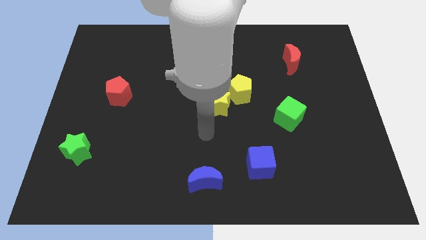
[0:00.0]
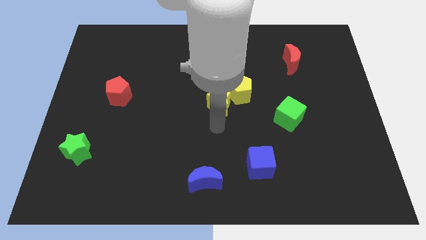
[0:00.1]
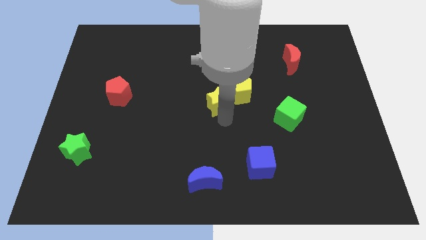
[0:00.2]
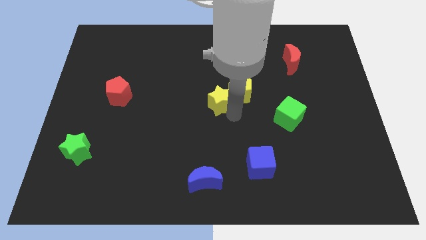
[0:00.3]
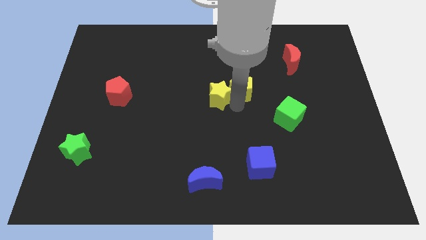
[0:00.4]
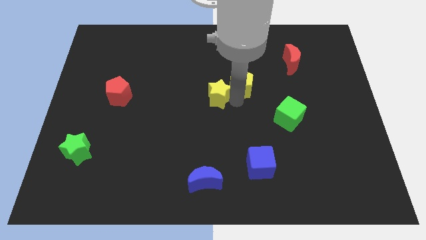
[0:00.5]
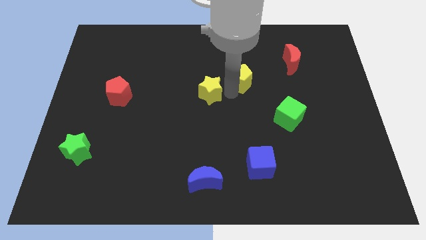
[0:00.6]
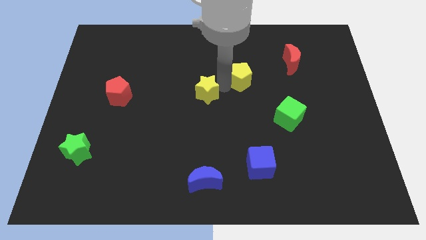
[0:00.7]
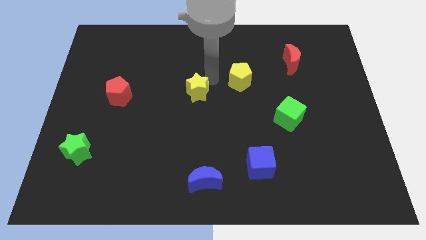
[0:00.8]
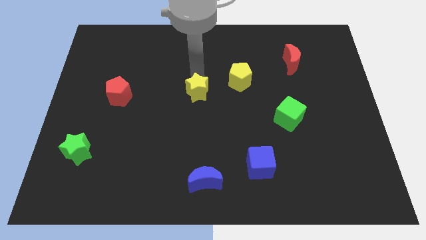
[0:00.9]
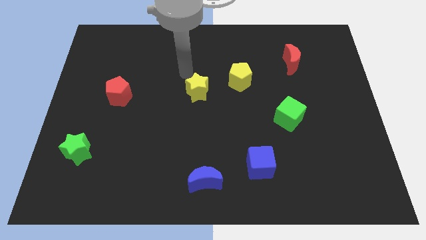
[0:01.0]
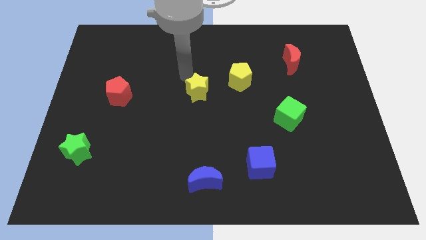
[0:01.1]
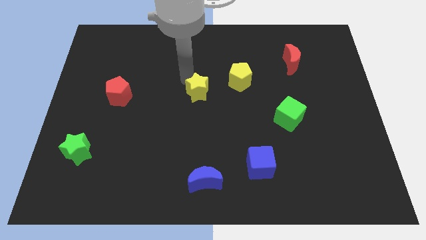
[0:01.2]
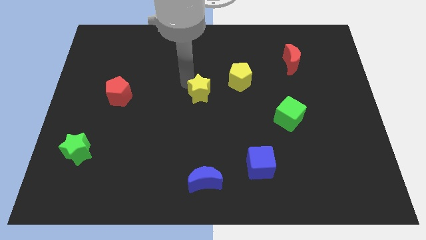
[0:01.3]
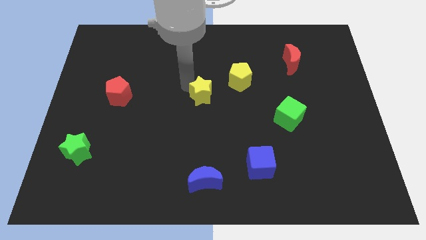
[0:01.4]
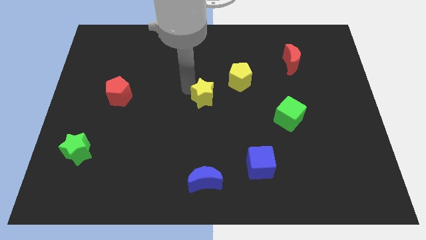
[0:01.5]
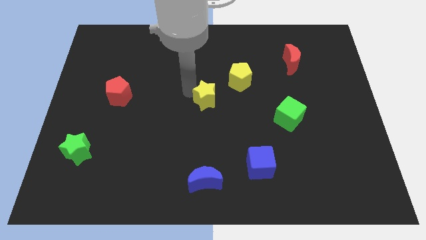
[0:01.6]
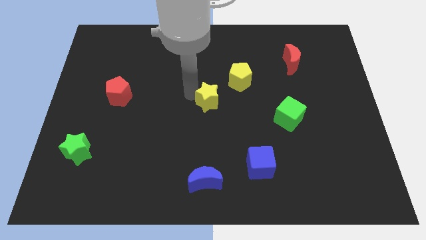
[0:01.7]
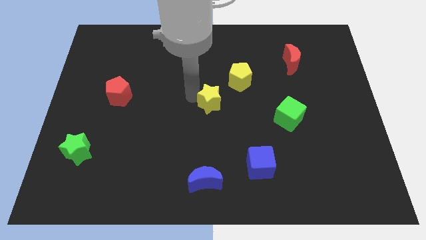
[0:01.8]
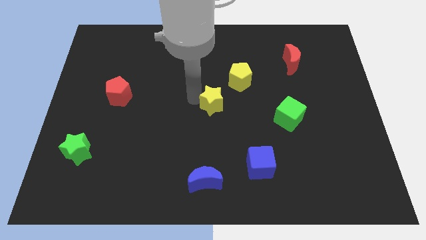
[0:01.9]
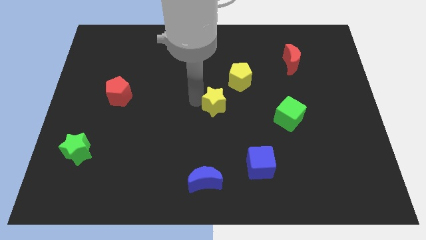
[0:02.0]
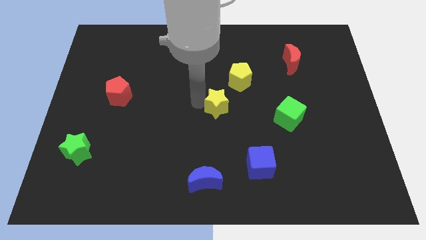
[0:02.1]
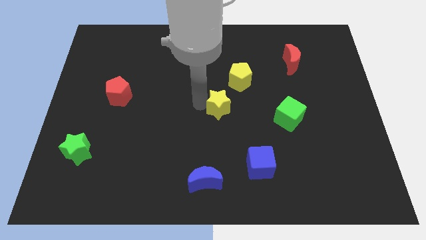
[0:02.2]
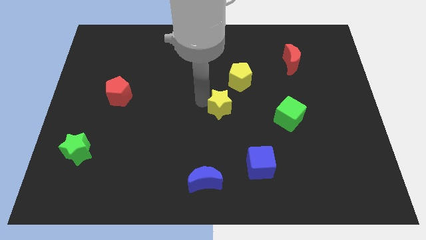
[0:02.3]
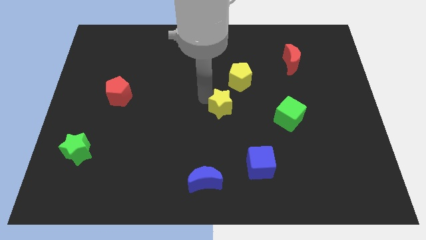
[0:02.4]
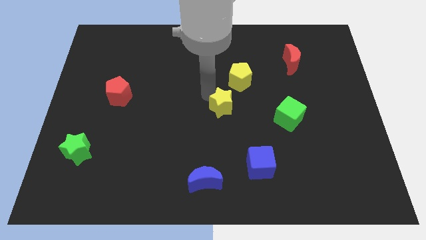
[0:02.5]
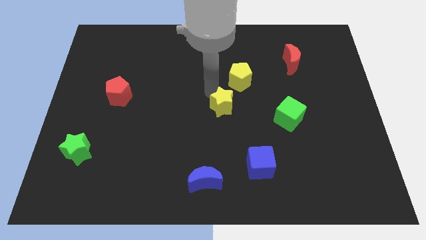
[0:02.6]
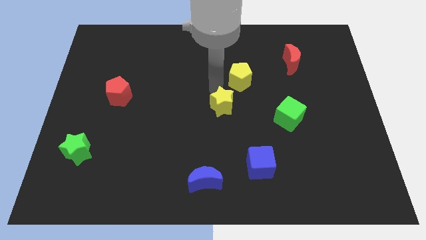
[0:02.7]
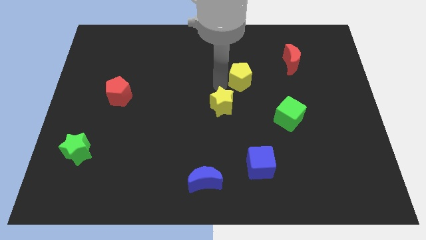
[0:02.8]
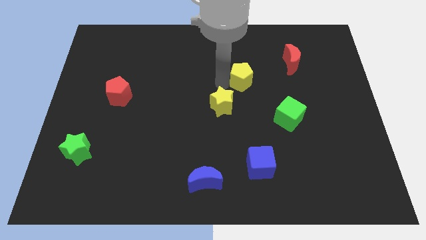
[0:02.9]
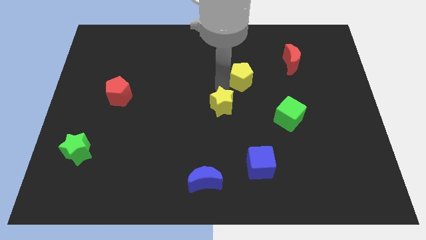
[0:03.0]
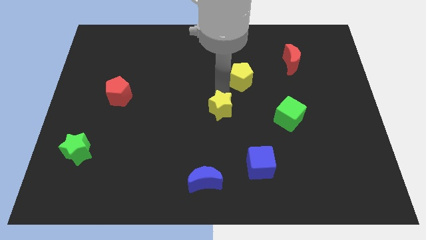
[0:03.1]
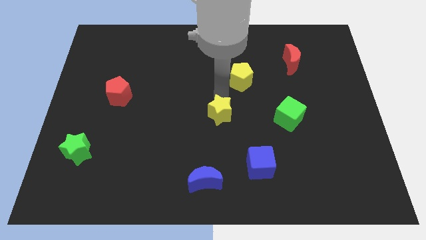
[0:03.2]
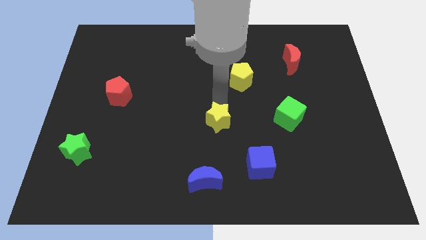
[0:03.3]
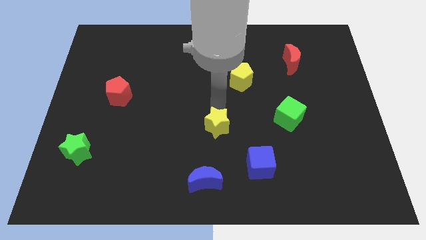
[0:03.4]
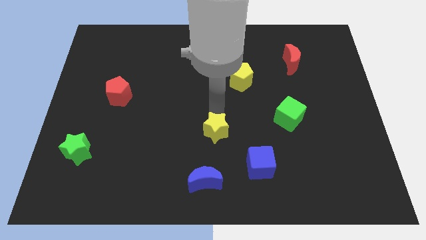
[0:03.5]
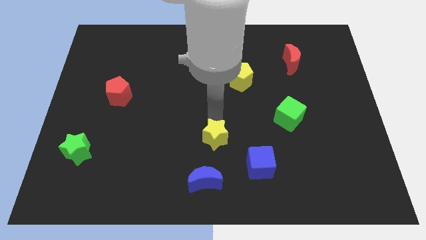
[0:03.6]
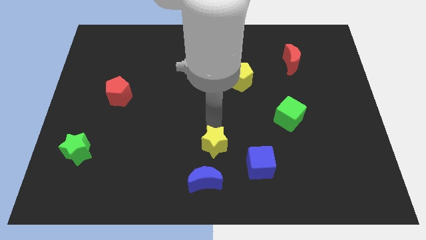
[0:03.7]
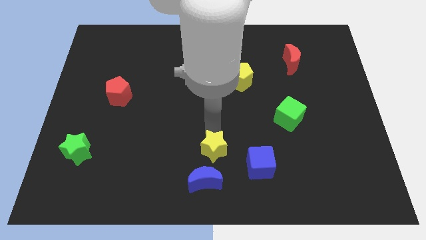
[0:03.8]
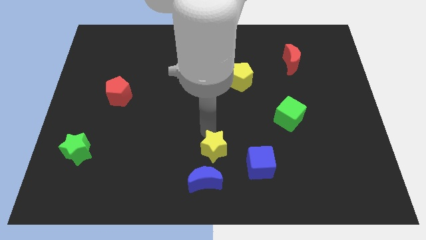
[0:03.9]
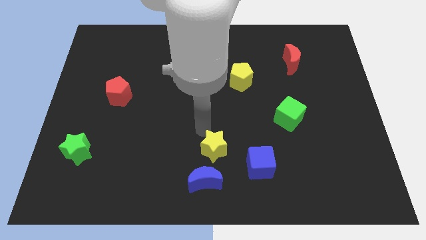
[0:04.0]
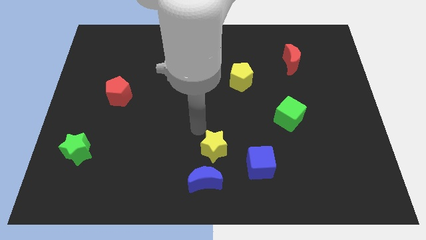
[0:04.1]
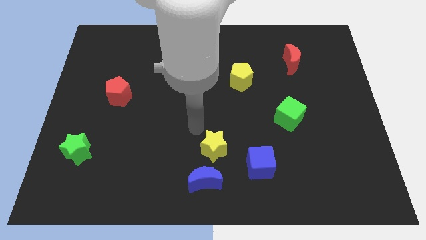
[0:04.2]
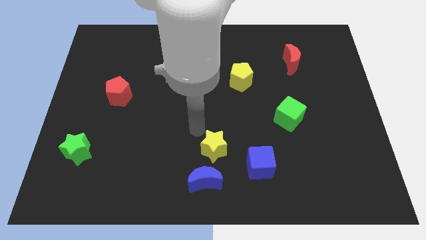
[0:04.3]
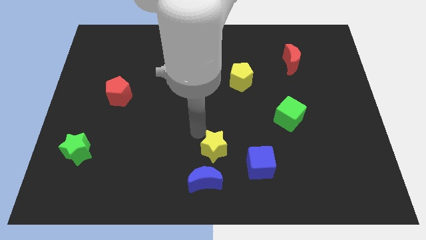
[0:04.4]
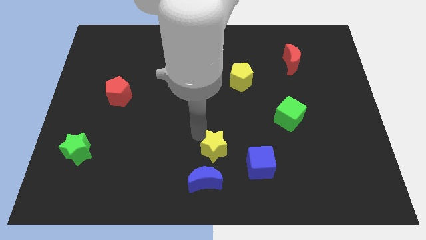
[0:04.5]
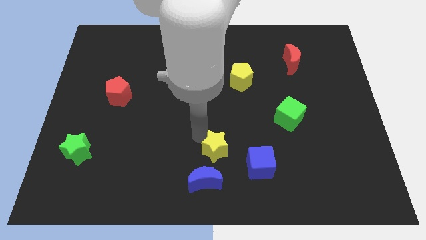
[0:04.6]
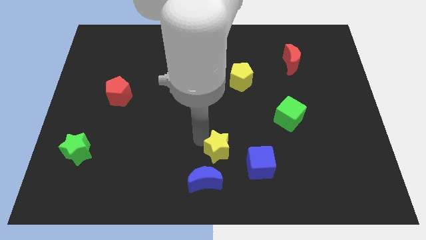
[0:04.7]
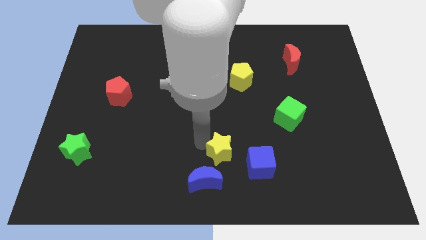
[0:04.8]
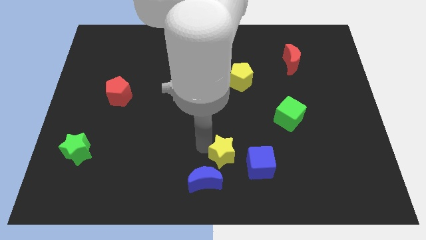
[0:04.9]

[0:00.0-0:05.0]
put the yellow star to the bottom

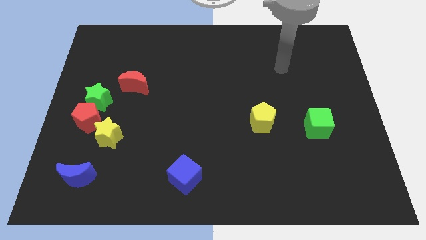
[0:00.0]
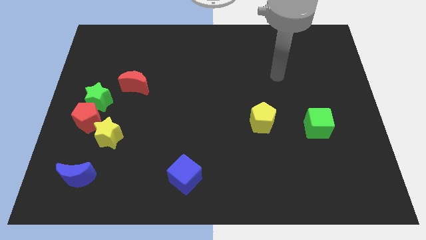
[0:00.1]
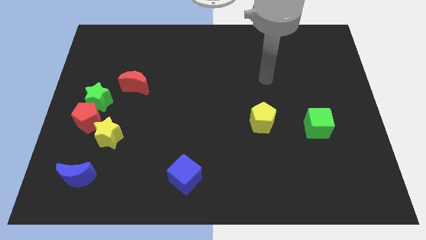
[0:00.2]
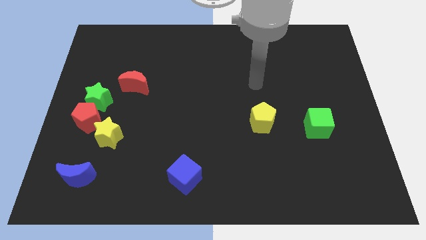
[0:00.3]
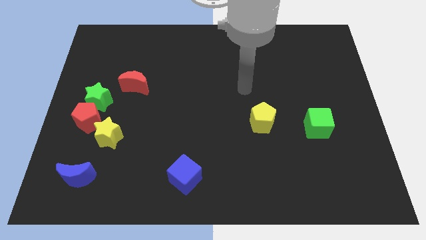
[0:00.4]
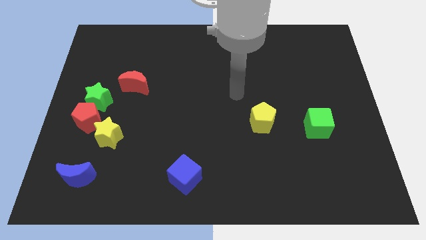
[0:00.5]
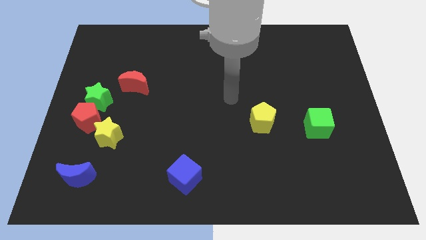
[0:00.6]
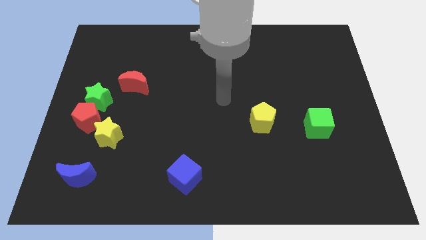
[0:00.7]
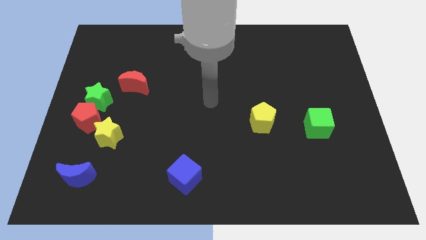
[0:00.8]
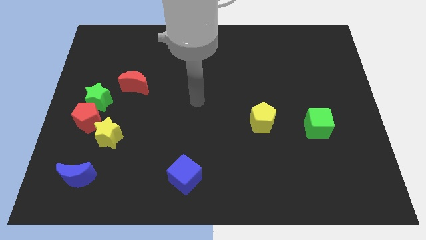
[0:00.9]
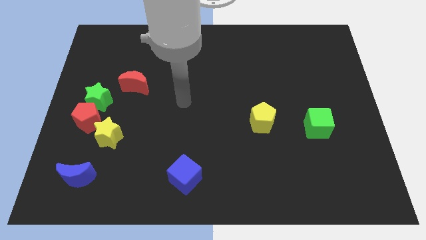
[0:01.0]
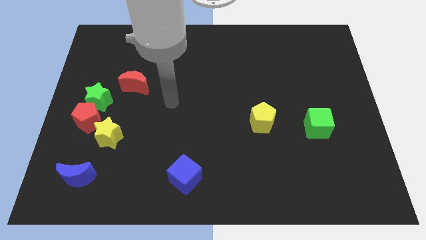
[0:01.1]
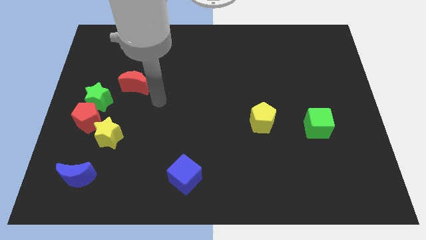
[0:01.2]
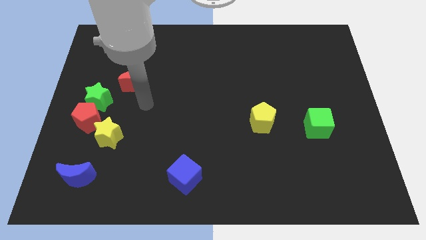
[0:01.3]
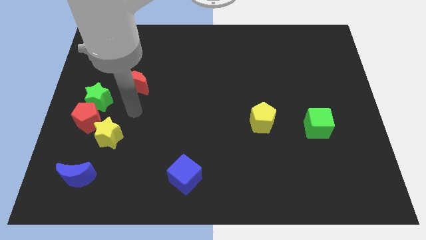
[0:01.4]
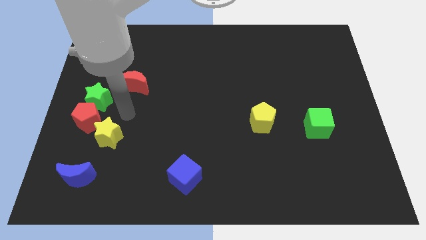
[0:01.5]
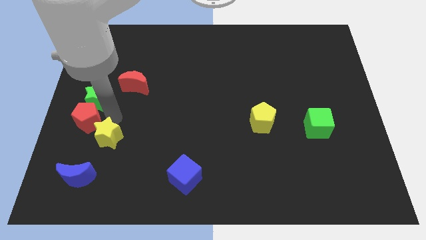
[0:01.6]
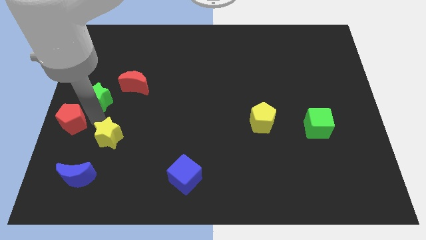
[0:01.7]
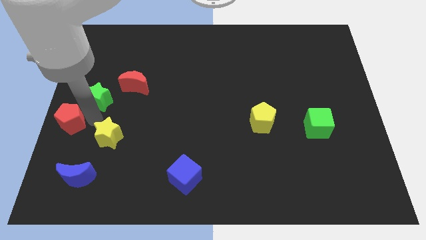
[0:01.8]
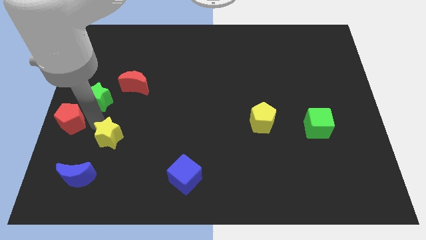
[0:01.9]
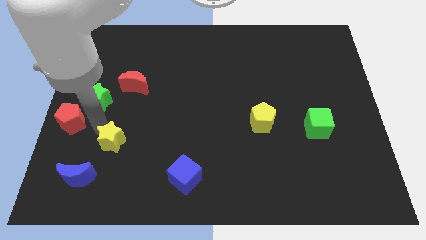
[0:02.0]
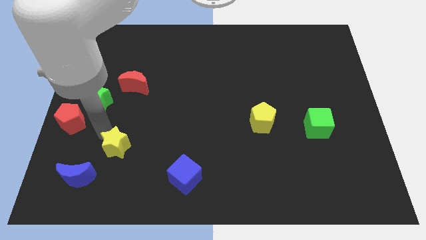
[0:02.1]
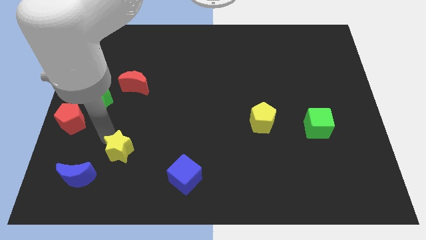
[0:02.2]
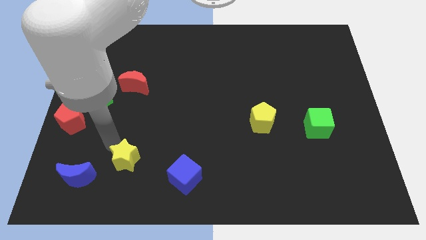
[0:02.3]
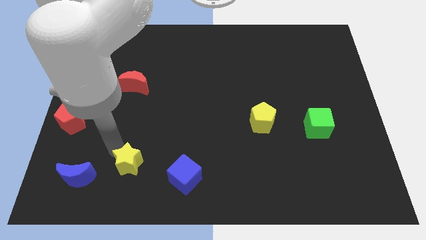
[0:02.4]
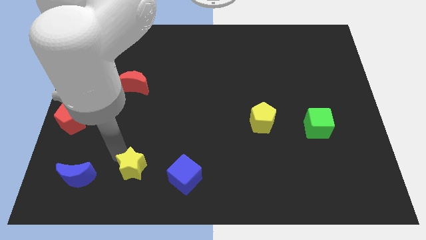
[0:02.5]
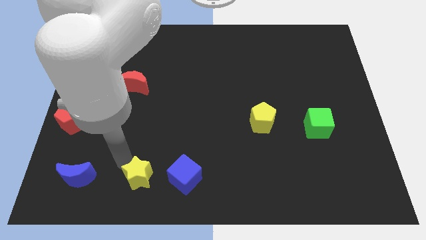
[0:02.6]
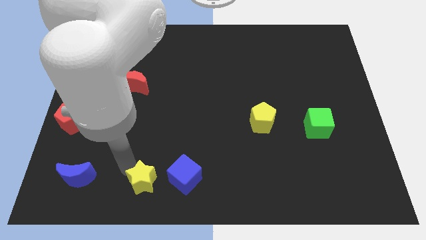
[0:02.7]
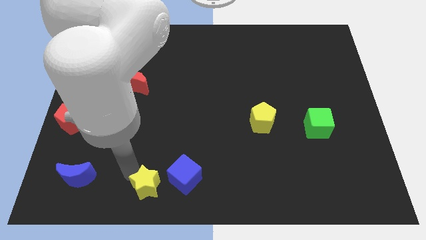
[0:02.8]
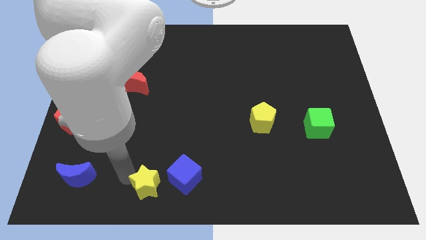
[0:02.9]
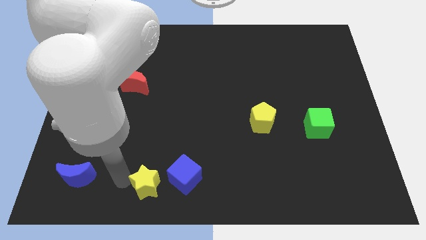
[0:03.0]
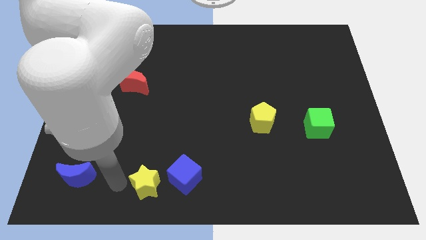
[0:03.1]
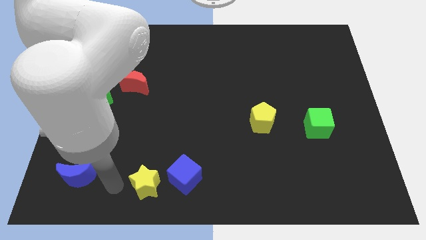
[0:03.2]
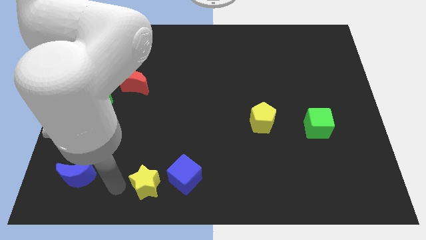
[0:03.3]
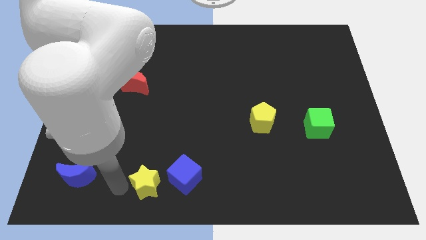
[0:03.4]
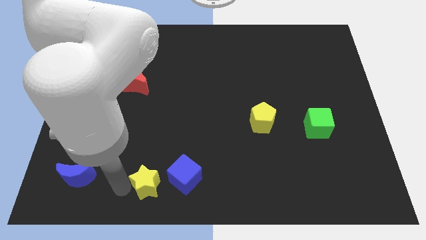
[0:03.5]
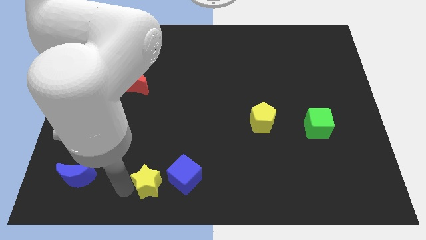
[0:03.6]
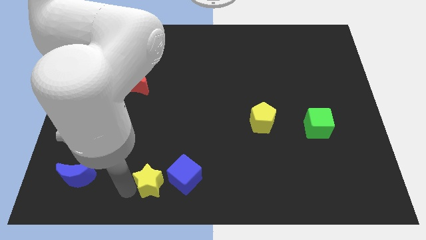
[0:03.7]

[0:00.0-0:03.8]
push the yellow star to the bottom side
